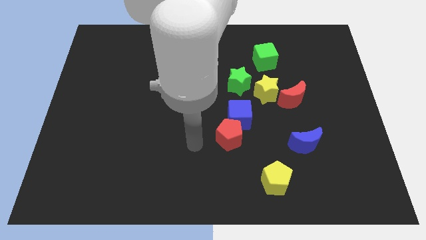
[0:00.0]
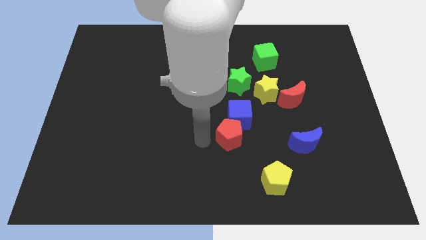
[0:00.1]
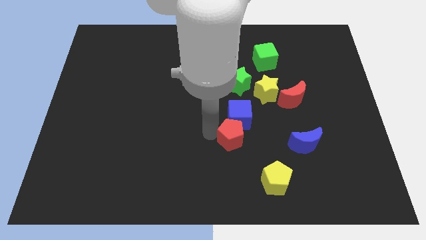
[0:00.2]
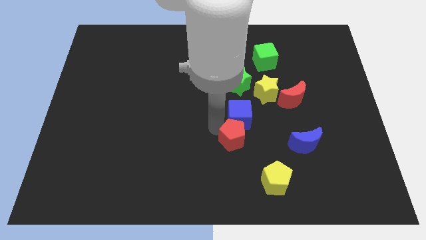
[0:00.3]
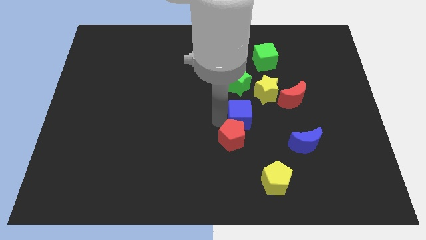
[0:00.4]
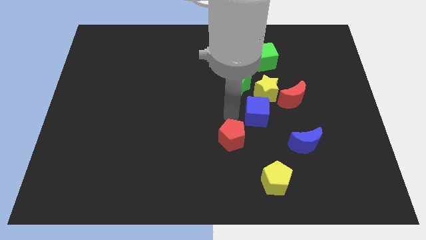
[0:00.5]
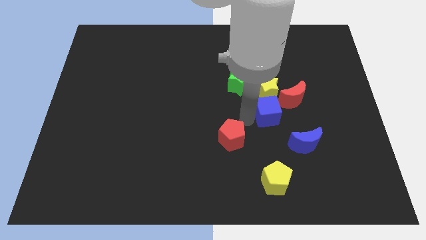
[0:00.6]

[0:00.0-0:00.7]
move the red pentagon away from the blue cube

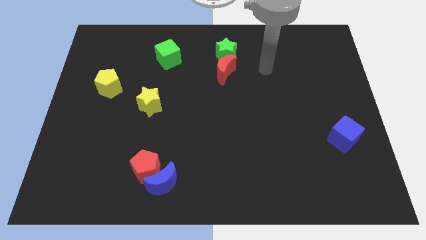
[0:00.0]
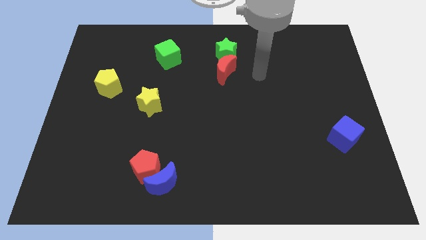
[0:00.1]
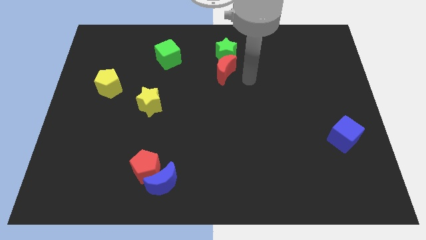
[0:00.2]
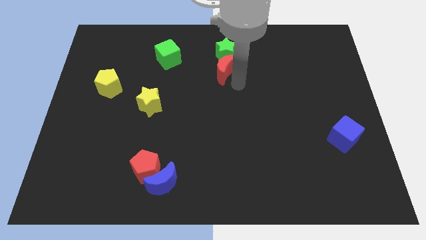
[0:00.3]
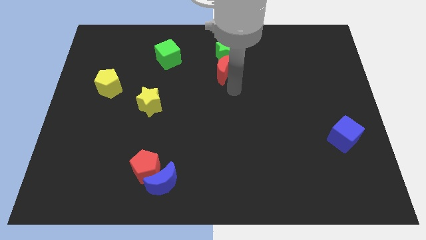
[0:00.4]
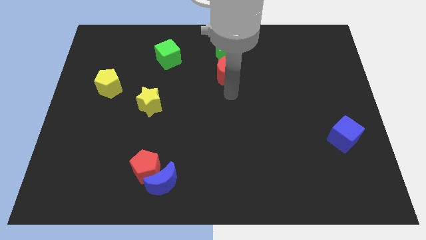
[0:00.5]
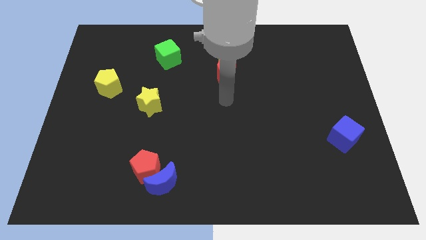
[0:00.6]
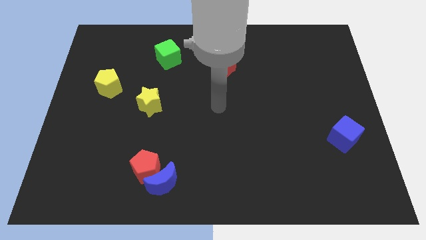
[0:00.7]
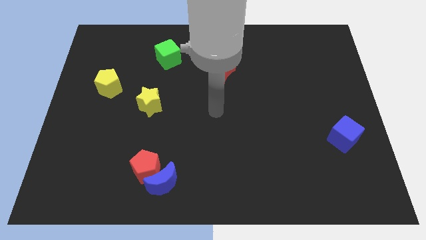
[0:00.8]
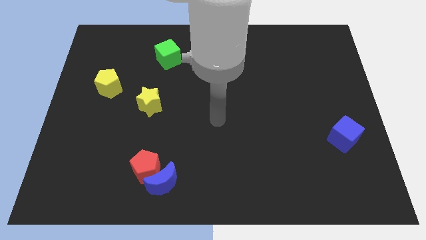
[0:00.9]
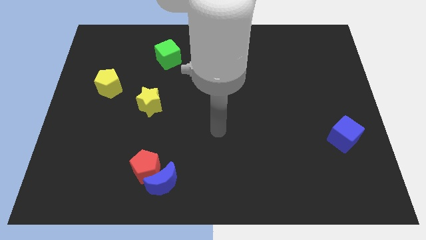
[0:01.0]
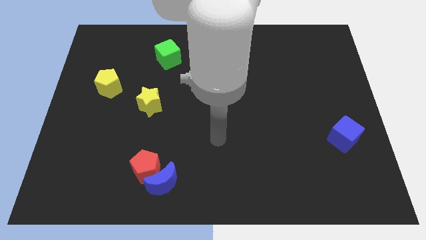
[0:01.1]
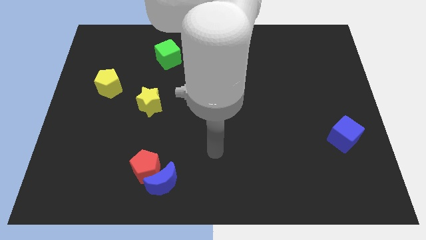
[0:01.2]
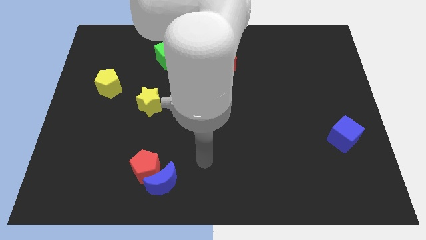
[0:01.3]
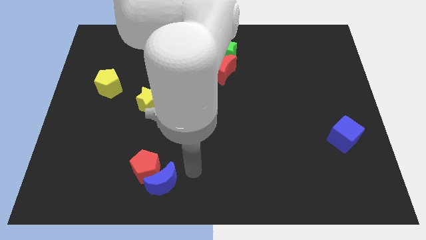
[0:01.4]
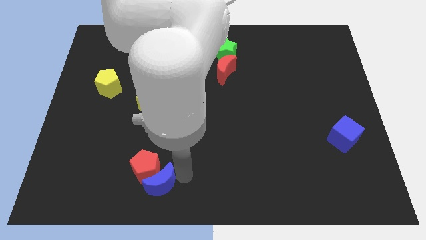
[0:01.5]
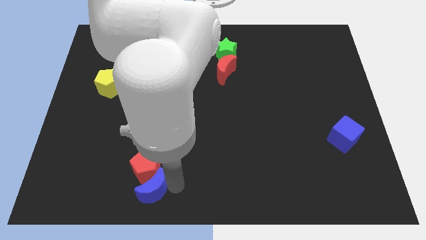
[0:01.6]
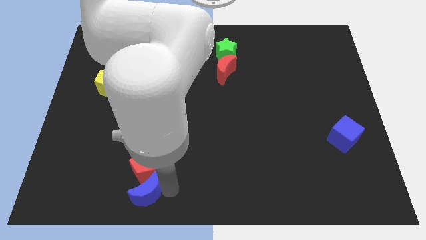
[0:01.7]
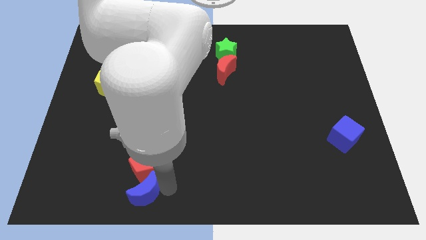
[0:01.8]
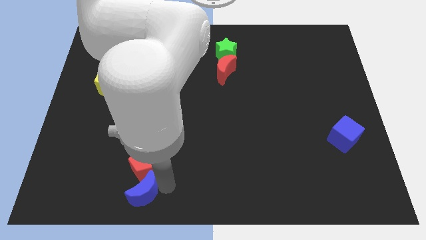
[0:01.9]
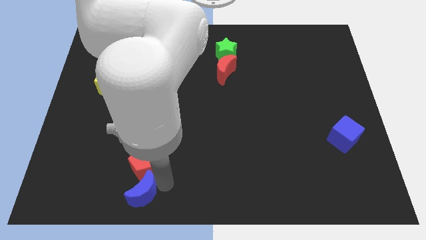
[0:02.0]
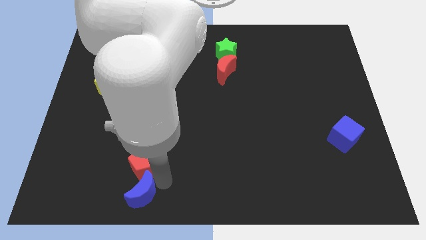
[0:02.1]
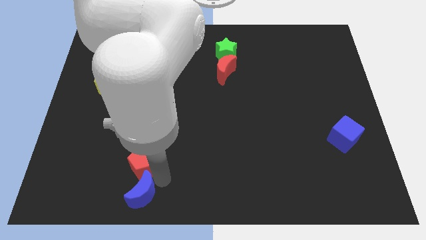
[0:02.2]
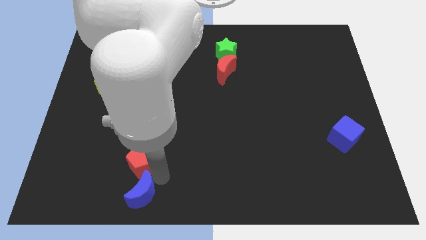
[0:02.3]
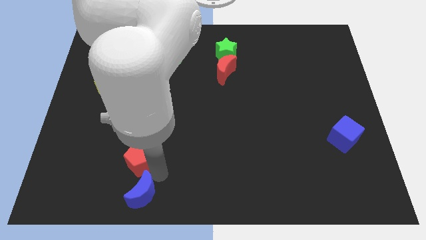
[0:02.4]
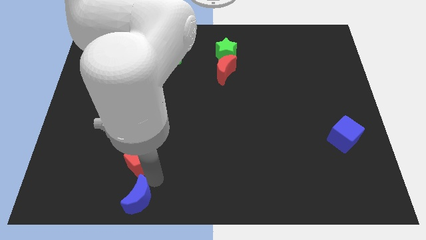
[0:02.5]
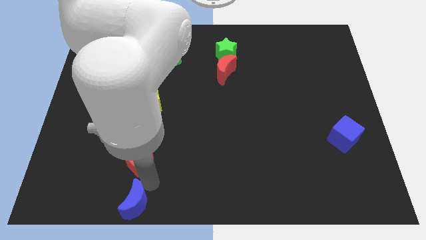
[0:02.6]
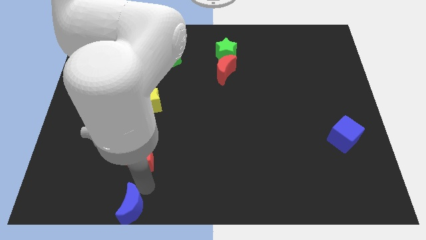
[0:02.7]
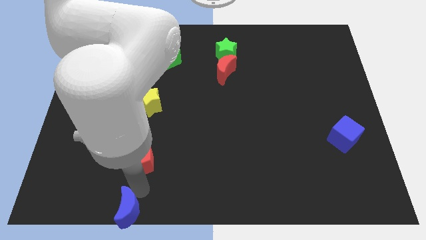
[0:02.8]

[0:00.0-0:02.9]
pull the red pentagon apart from the blue moon

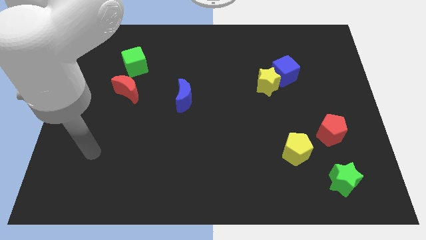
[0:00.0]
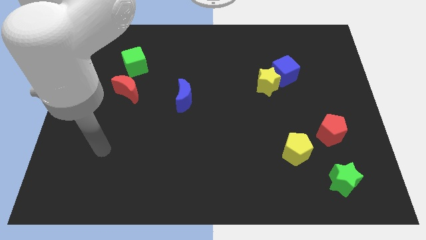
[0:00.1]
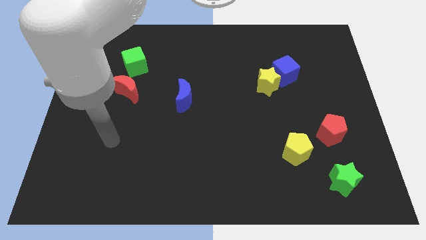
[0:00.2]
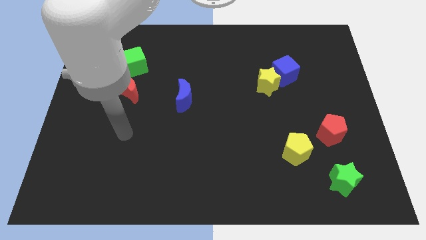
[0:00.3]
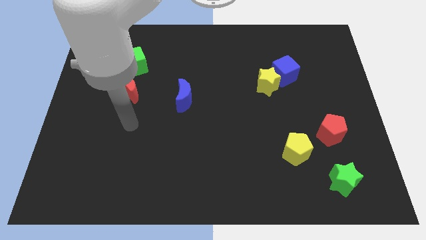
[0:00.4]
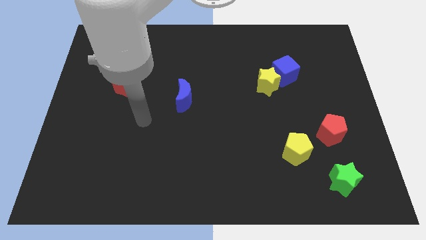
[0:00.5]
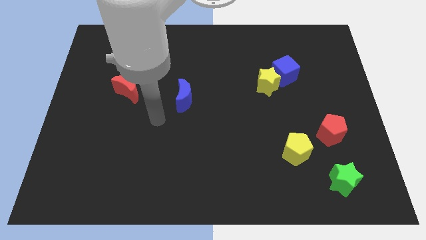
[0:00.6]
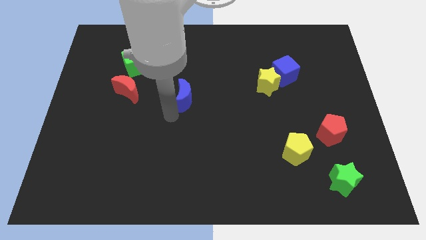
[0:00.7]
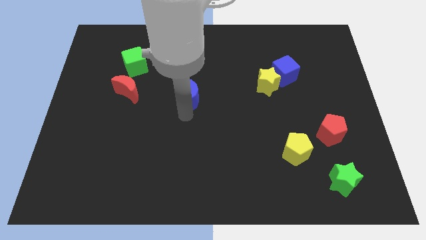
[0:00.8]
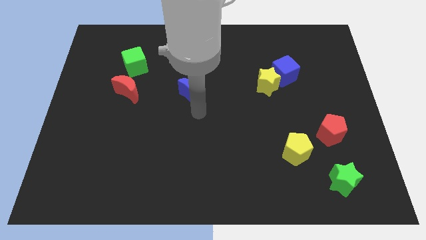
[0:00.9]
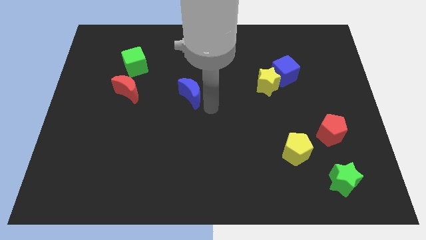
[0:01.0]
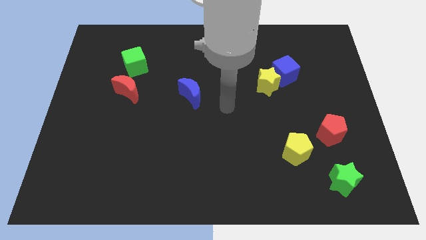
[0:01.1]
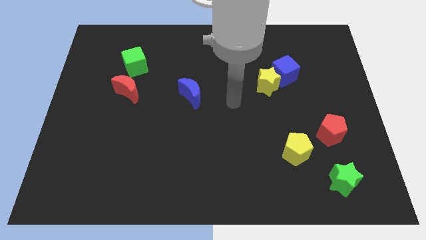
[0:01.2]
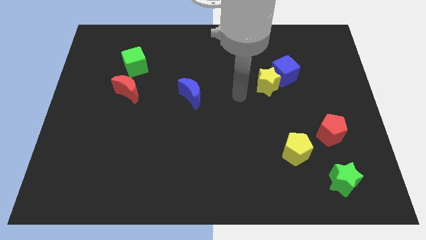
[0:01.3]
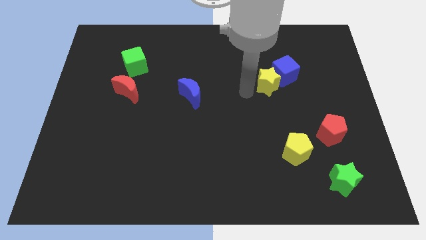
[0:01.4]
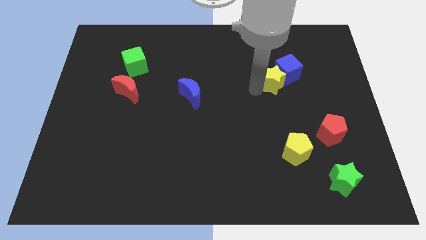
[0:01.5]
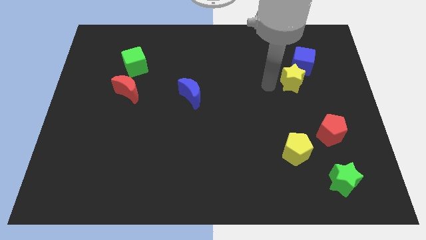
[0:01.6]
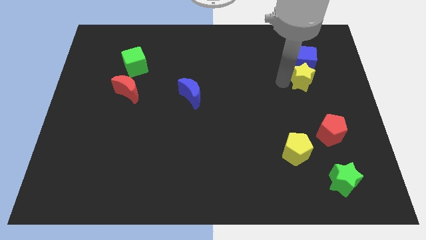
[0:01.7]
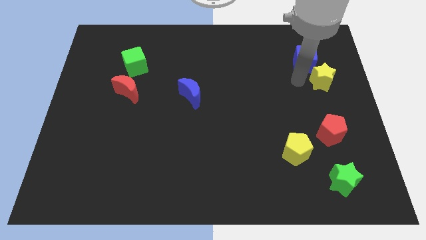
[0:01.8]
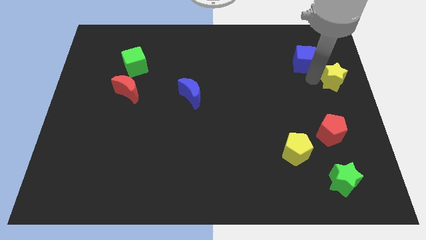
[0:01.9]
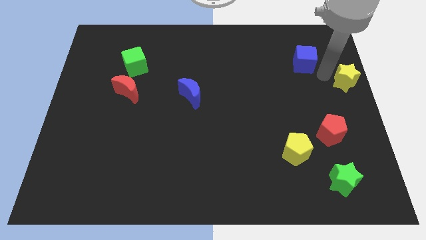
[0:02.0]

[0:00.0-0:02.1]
separate the blue cube from the yellow star

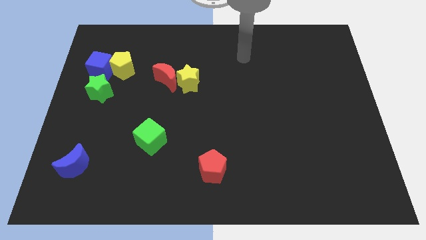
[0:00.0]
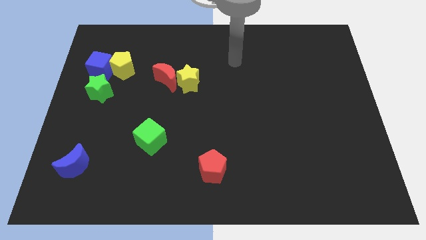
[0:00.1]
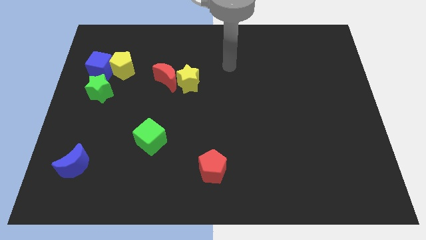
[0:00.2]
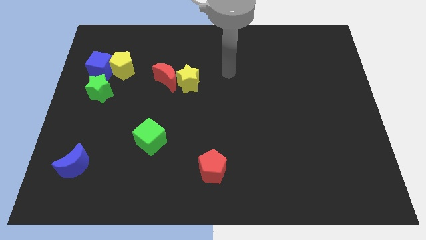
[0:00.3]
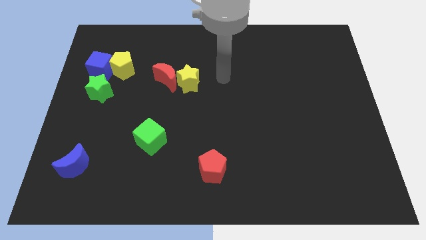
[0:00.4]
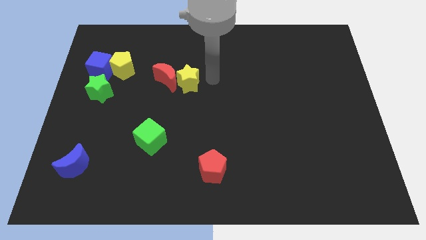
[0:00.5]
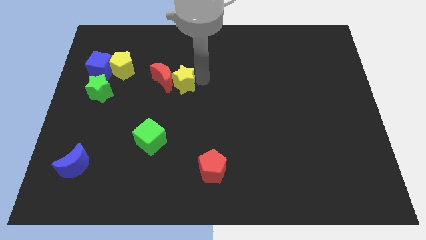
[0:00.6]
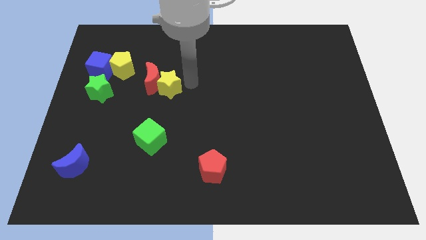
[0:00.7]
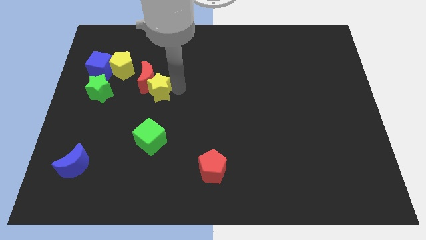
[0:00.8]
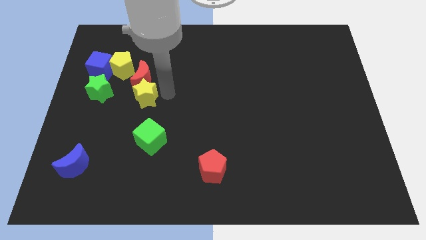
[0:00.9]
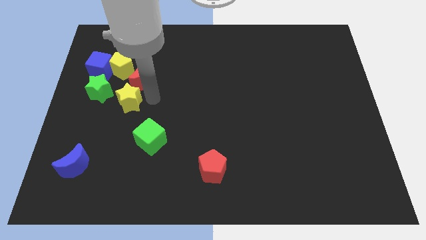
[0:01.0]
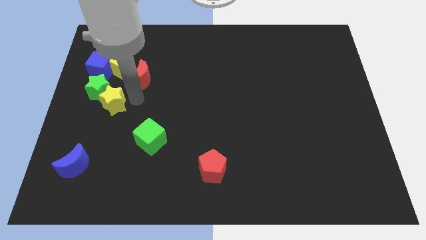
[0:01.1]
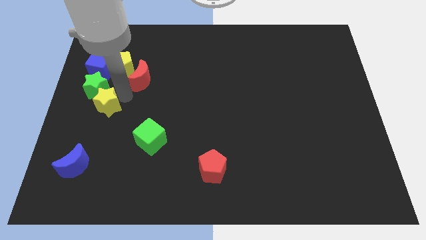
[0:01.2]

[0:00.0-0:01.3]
pull the red moon apart from the yellow star

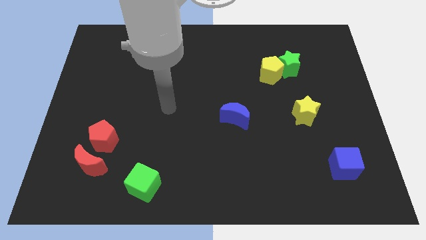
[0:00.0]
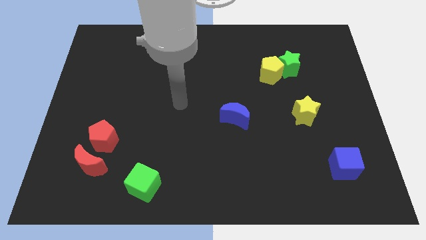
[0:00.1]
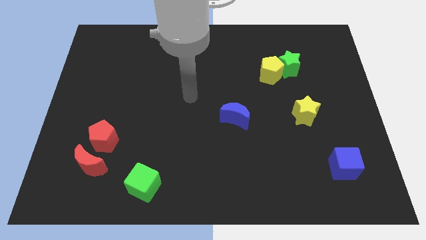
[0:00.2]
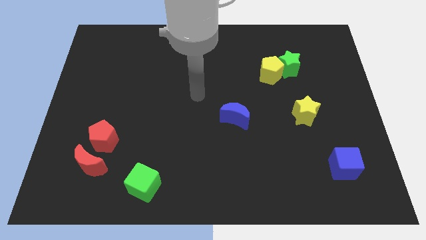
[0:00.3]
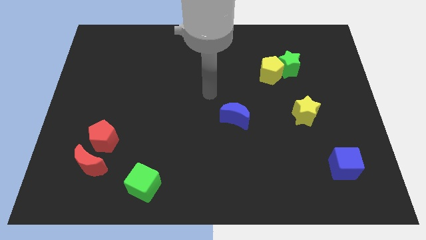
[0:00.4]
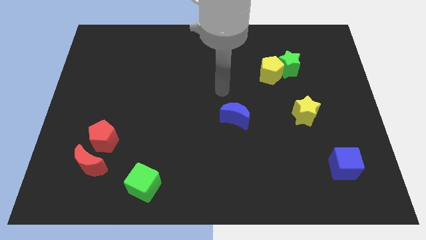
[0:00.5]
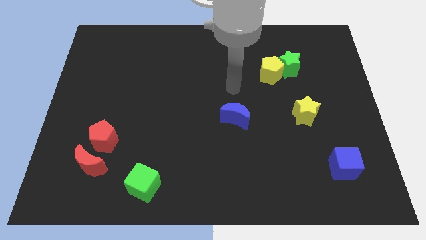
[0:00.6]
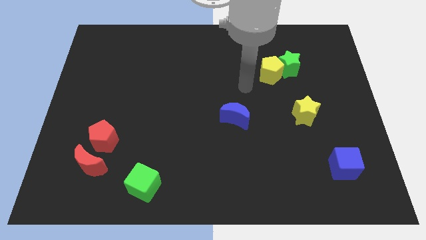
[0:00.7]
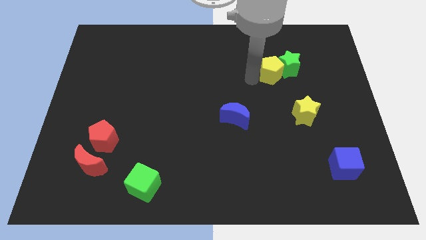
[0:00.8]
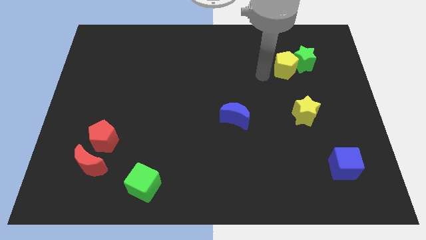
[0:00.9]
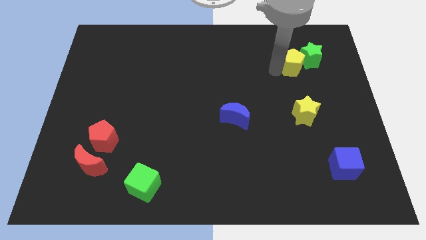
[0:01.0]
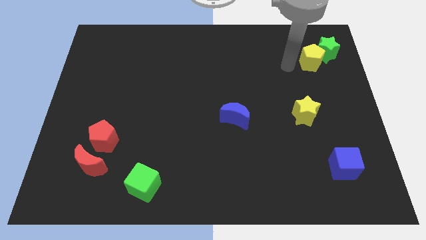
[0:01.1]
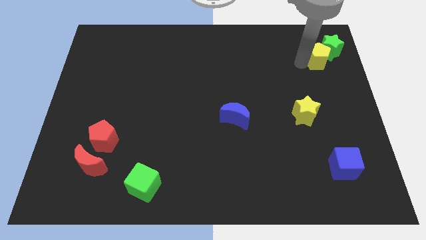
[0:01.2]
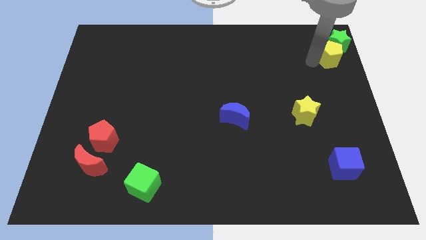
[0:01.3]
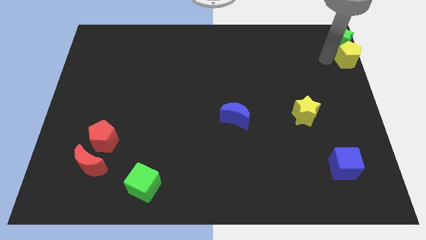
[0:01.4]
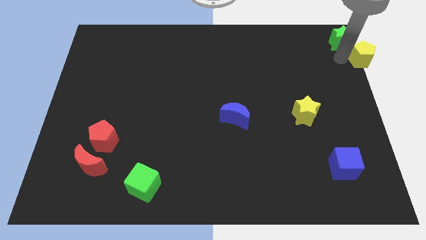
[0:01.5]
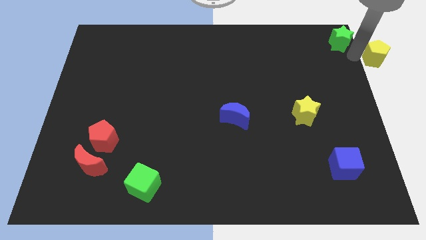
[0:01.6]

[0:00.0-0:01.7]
separate the green star from the yellow pentagon

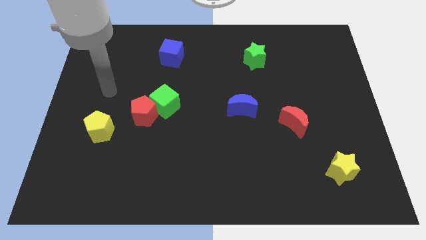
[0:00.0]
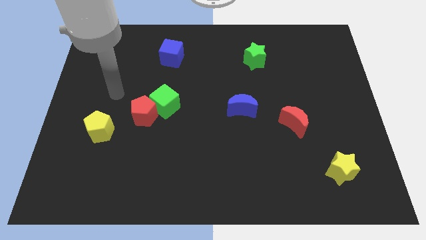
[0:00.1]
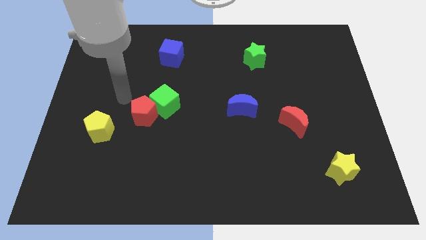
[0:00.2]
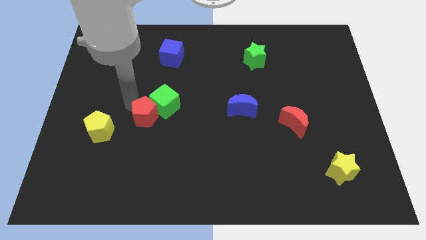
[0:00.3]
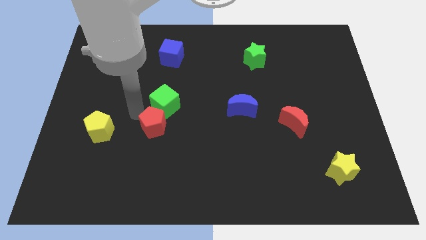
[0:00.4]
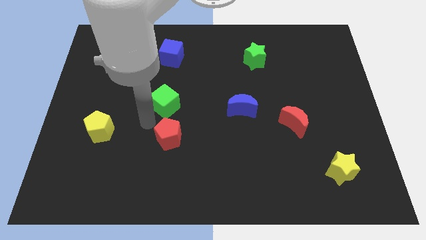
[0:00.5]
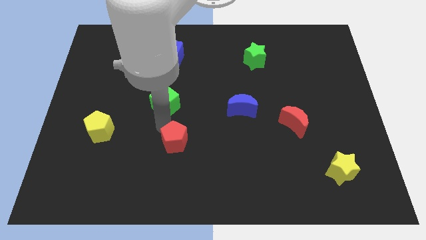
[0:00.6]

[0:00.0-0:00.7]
pull the green cube apart from the red pentagon
